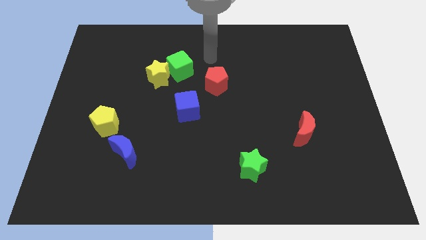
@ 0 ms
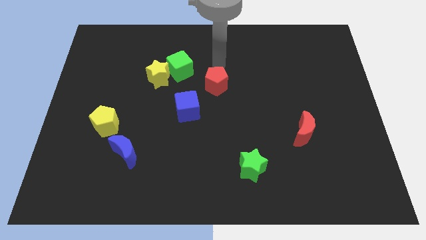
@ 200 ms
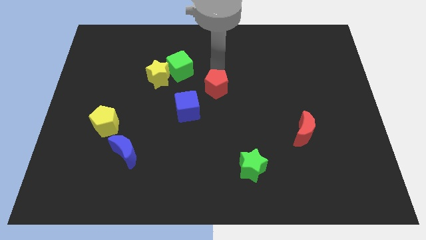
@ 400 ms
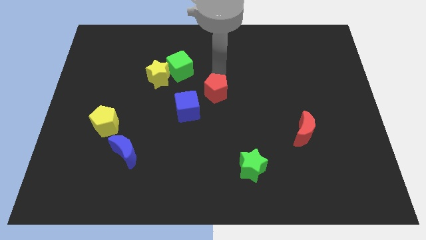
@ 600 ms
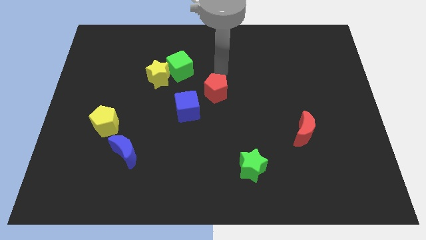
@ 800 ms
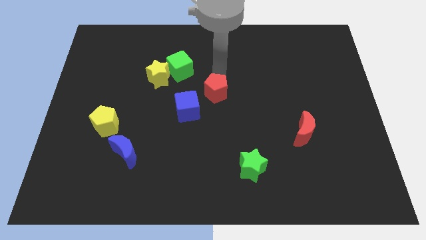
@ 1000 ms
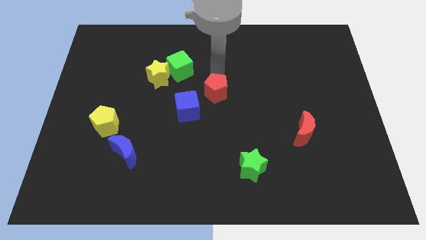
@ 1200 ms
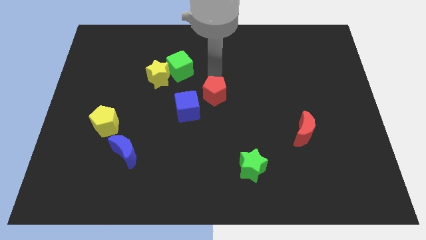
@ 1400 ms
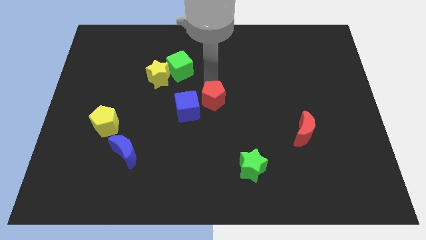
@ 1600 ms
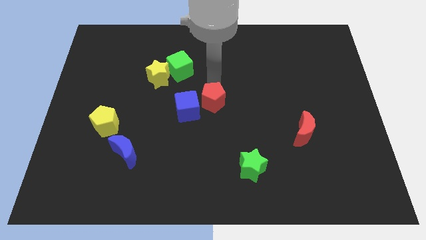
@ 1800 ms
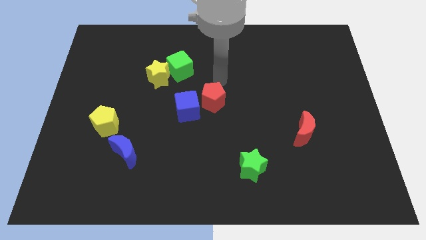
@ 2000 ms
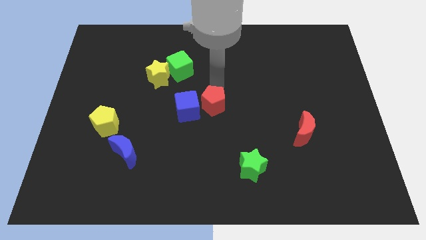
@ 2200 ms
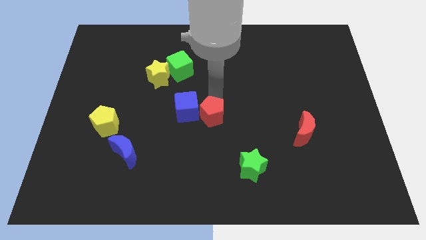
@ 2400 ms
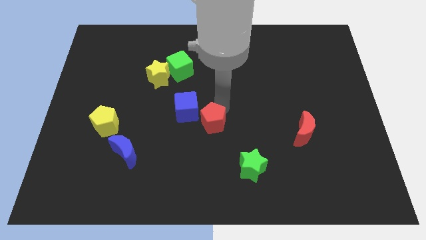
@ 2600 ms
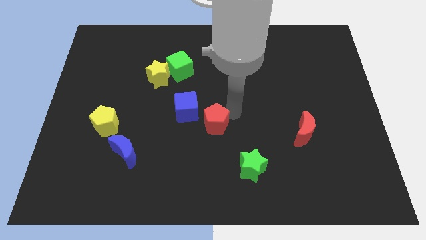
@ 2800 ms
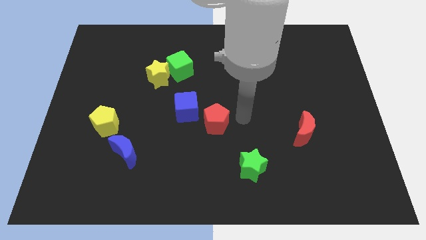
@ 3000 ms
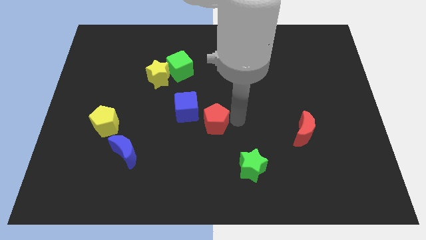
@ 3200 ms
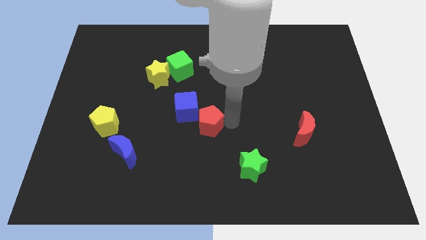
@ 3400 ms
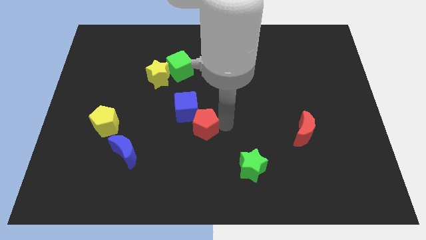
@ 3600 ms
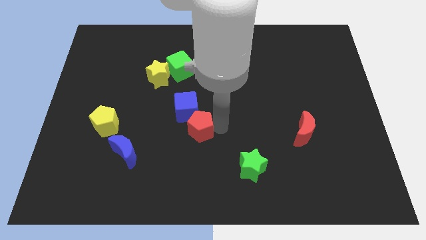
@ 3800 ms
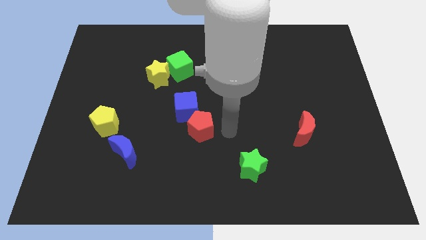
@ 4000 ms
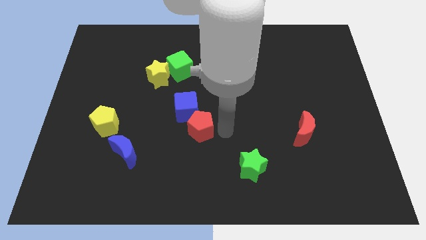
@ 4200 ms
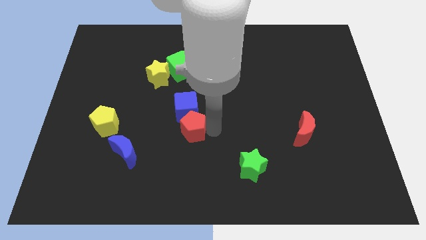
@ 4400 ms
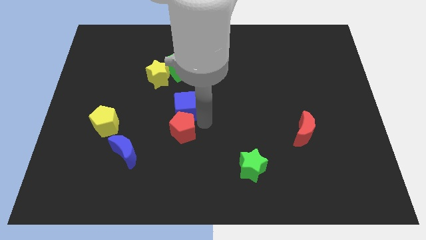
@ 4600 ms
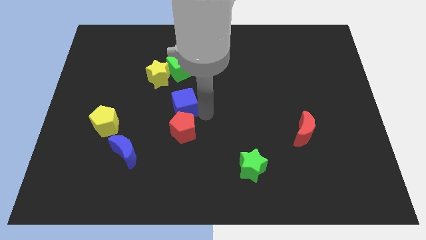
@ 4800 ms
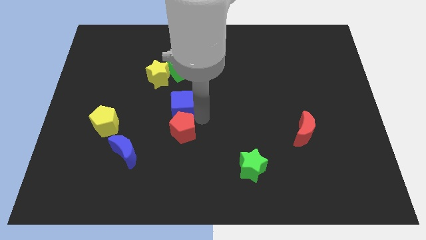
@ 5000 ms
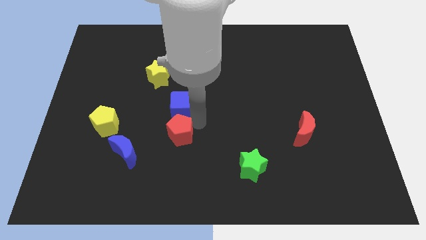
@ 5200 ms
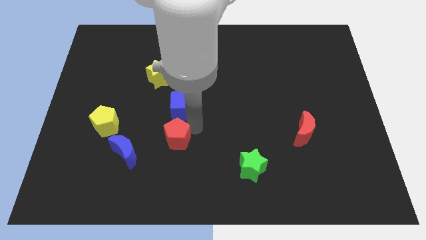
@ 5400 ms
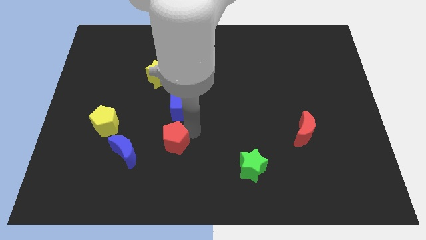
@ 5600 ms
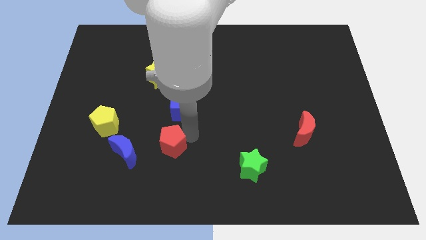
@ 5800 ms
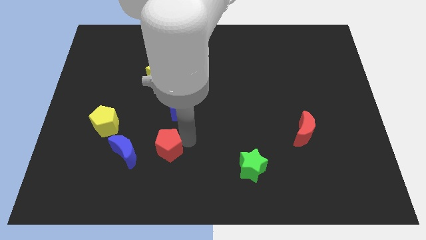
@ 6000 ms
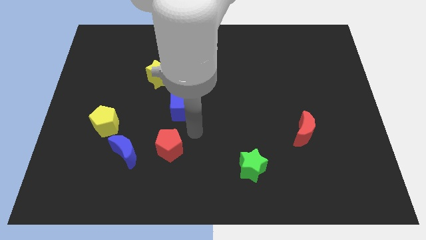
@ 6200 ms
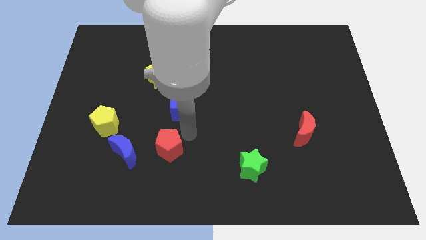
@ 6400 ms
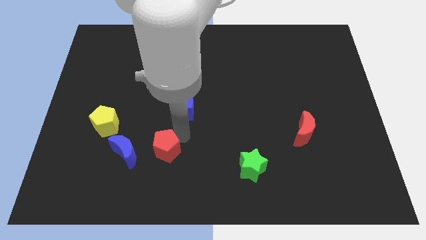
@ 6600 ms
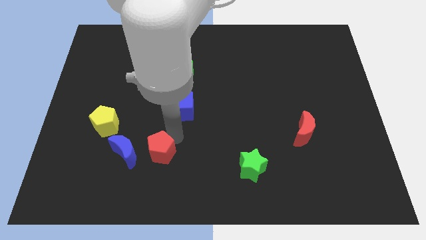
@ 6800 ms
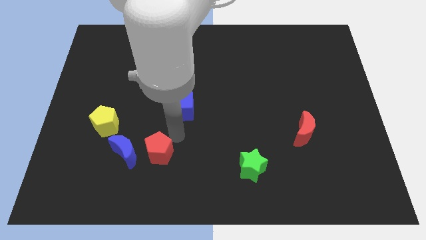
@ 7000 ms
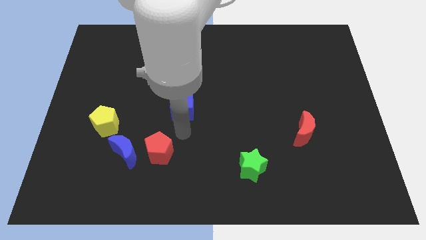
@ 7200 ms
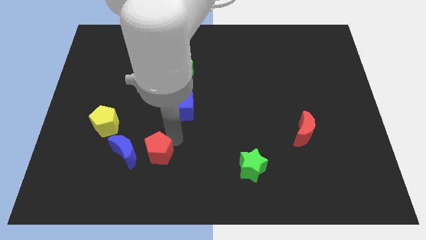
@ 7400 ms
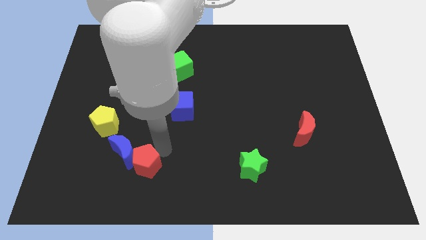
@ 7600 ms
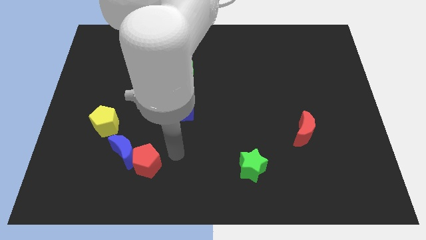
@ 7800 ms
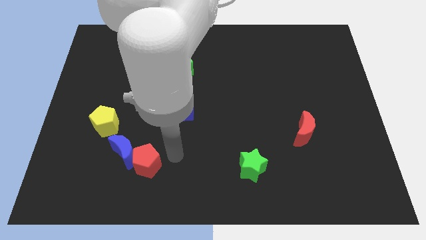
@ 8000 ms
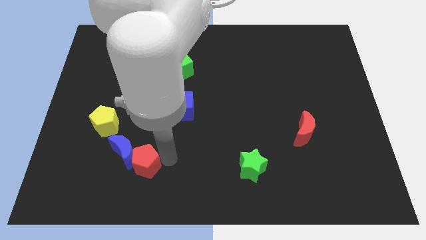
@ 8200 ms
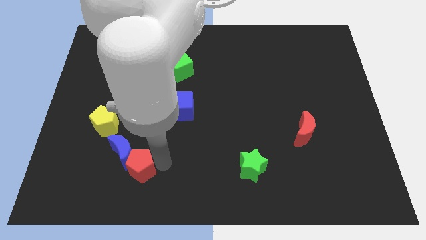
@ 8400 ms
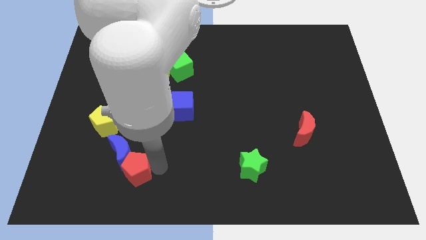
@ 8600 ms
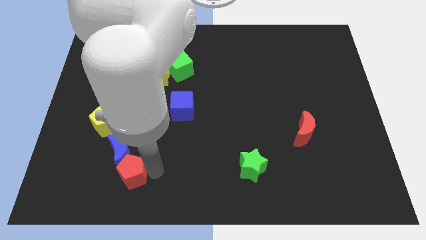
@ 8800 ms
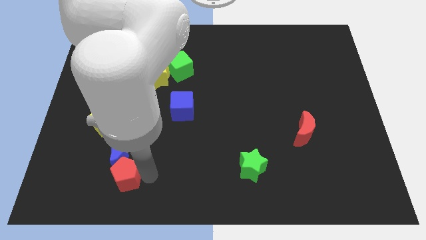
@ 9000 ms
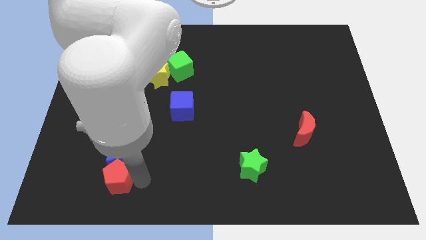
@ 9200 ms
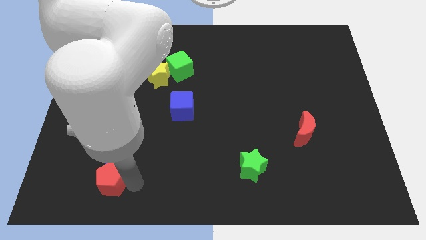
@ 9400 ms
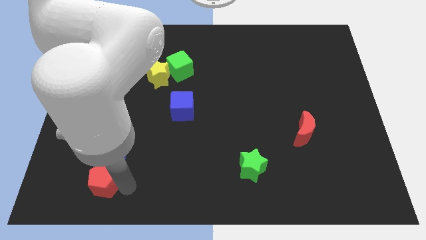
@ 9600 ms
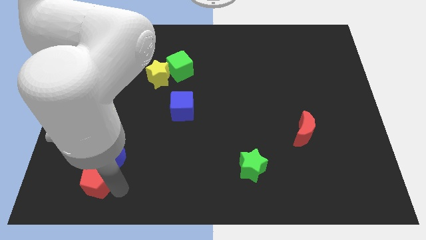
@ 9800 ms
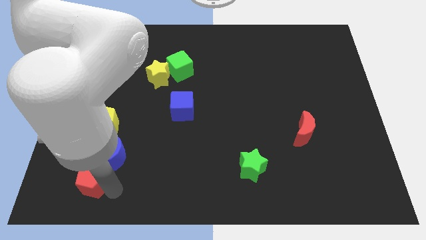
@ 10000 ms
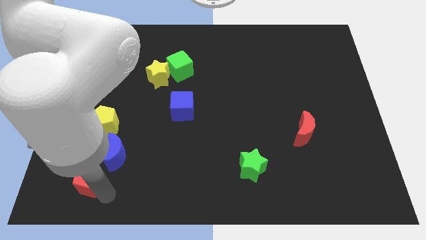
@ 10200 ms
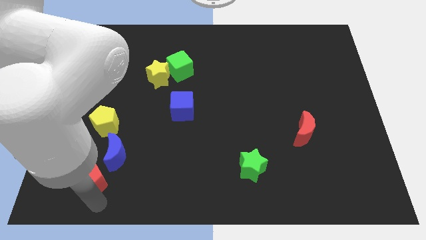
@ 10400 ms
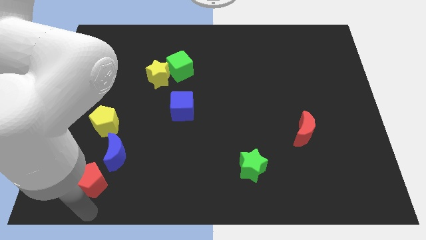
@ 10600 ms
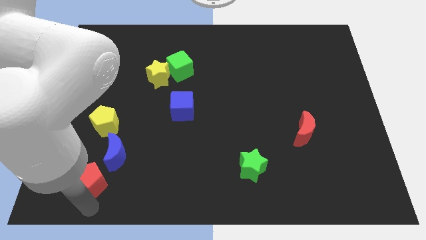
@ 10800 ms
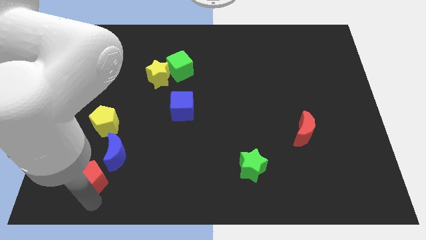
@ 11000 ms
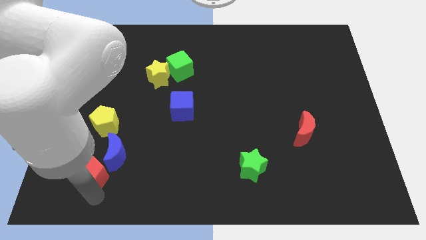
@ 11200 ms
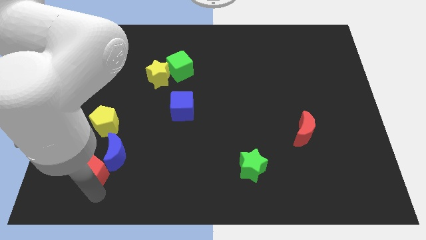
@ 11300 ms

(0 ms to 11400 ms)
move the red pentagon to the left of the blue moon

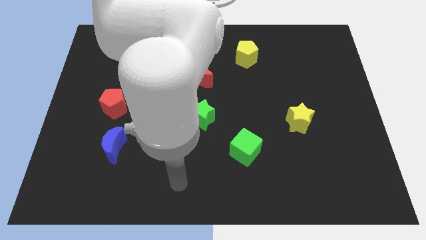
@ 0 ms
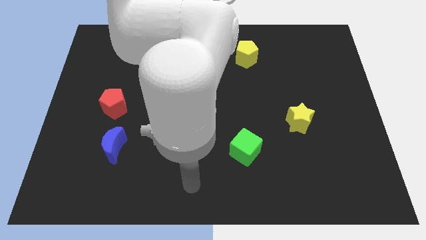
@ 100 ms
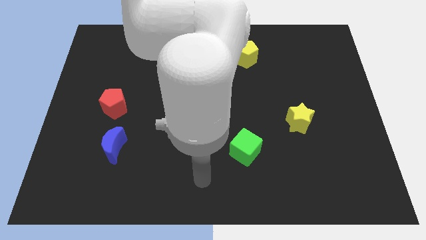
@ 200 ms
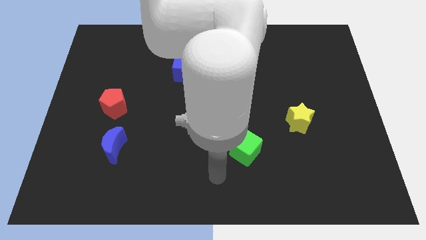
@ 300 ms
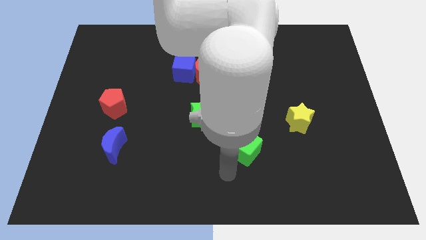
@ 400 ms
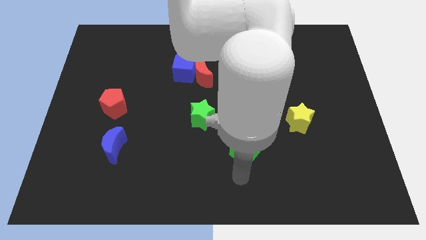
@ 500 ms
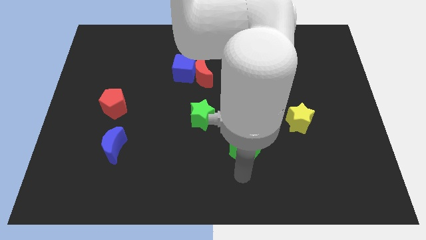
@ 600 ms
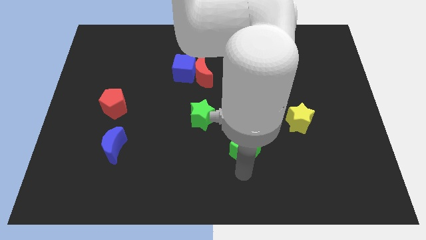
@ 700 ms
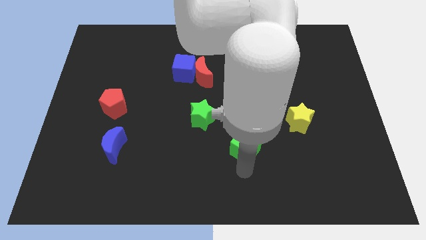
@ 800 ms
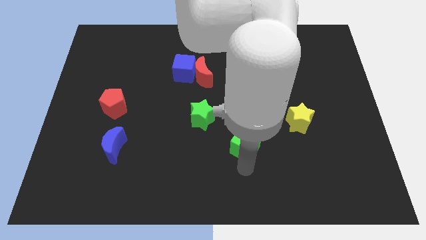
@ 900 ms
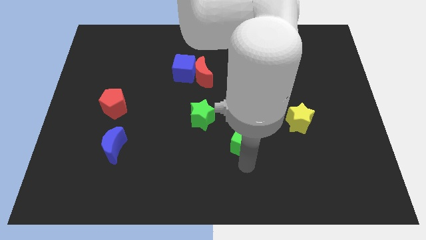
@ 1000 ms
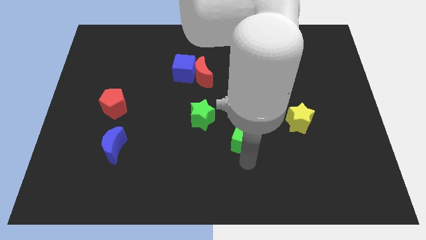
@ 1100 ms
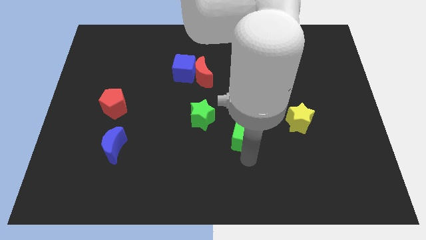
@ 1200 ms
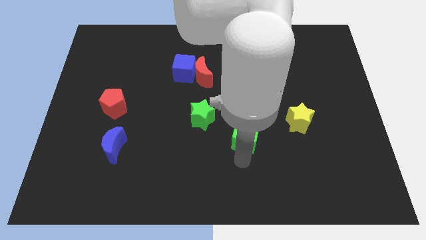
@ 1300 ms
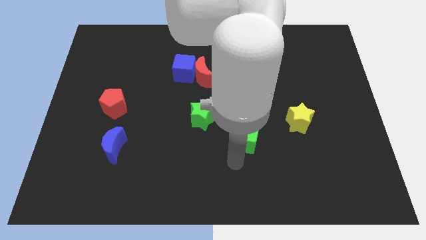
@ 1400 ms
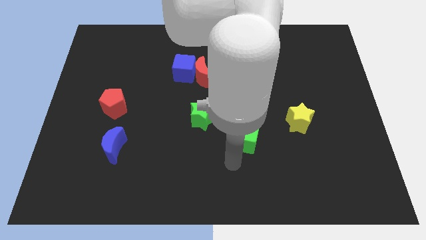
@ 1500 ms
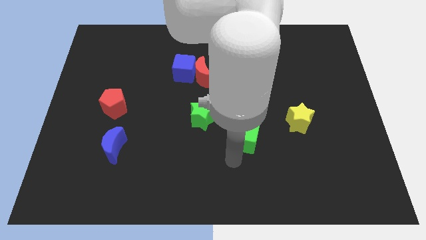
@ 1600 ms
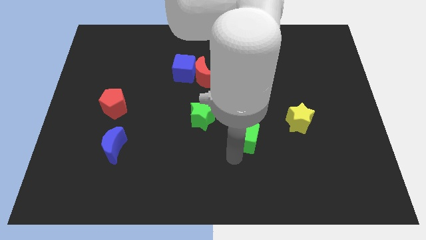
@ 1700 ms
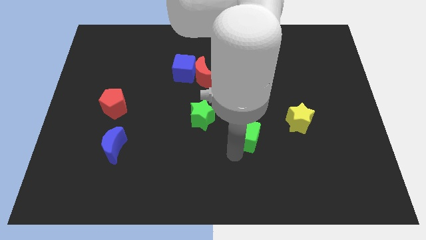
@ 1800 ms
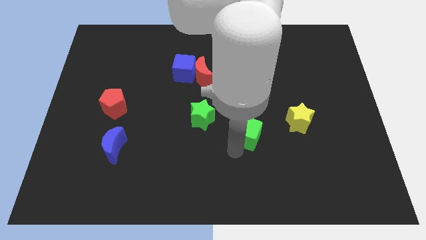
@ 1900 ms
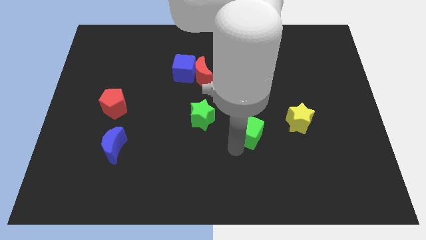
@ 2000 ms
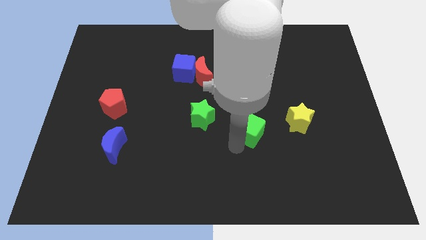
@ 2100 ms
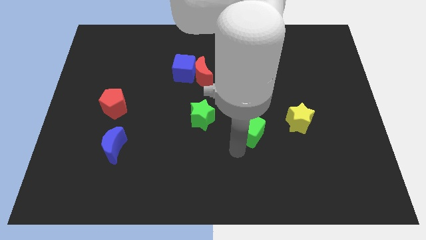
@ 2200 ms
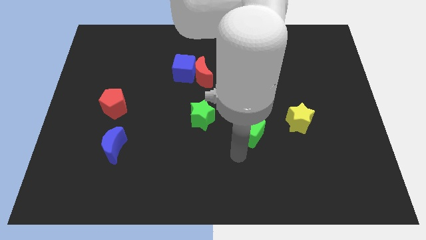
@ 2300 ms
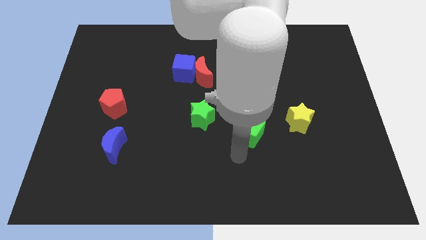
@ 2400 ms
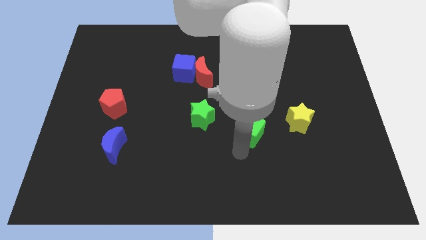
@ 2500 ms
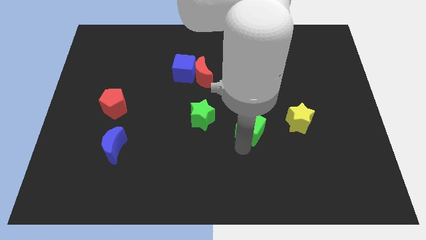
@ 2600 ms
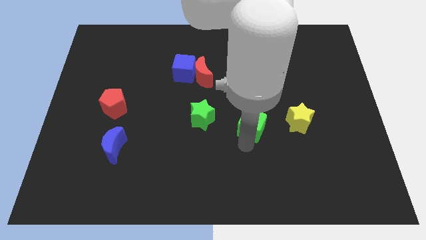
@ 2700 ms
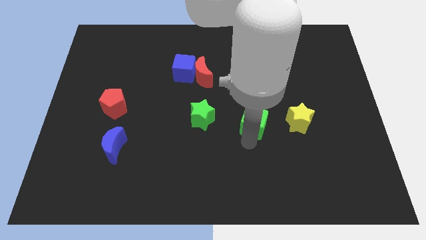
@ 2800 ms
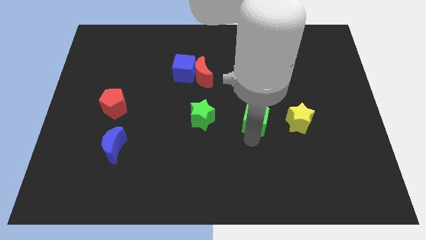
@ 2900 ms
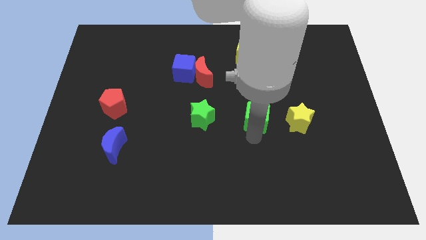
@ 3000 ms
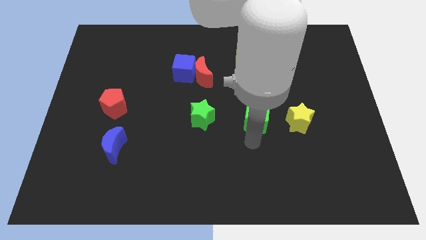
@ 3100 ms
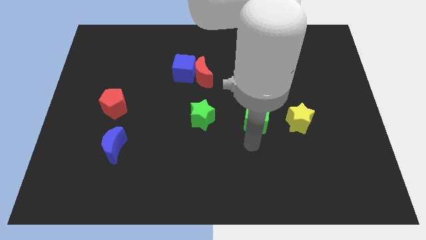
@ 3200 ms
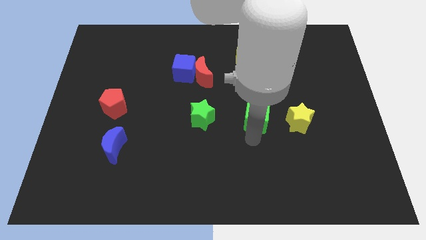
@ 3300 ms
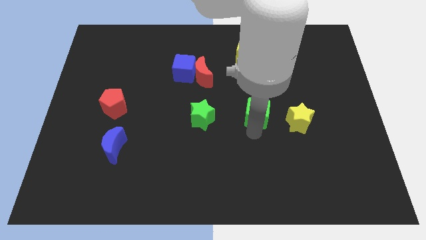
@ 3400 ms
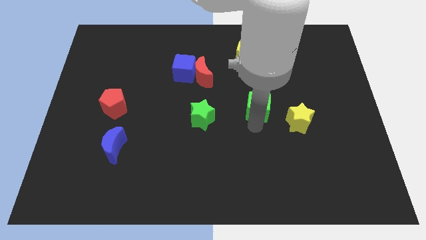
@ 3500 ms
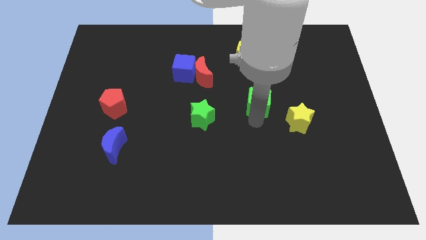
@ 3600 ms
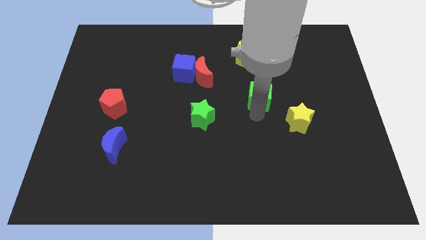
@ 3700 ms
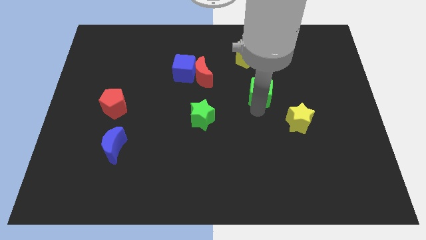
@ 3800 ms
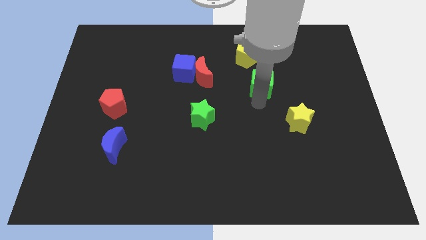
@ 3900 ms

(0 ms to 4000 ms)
push the green cube diagonally down and to the right of the yellow pentagon
